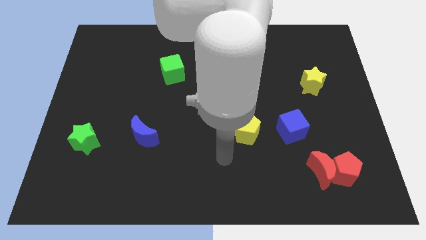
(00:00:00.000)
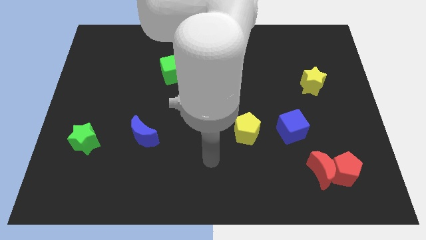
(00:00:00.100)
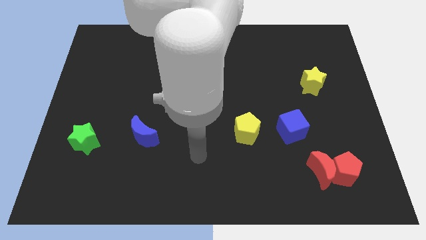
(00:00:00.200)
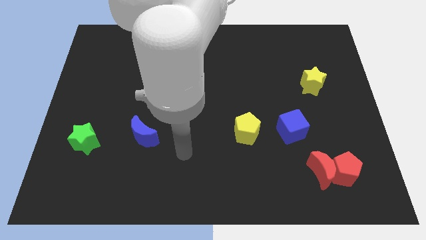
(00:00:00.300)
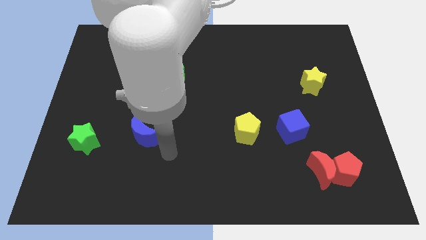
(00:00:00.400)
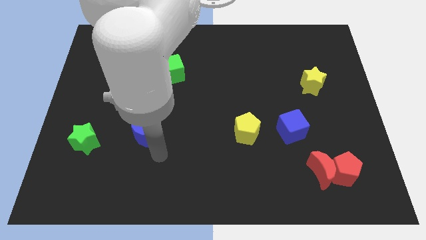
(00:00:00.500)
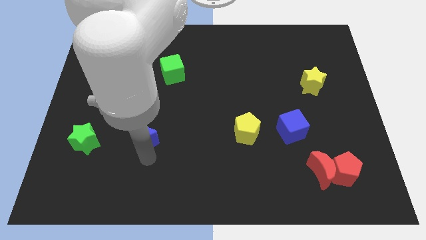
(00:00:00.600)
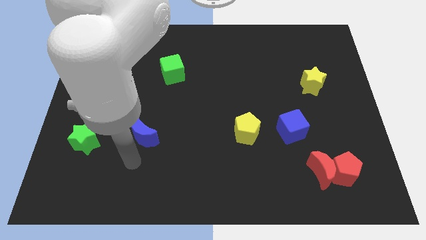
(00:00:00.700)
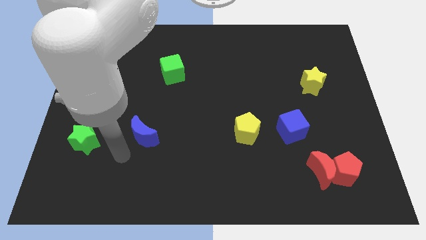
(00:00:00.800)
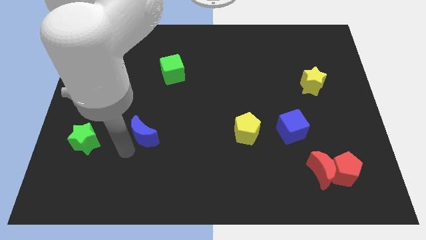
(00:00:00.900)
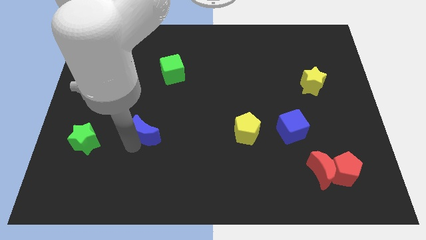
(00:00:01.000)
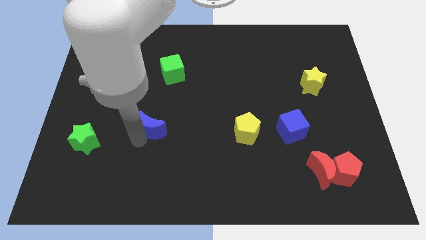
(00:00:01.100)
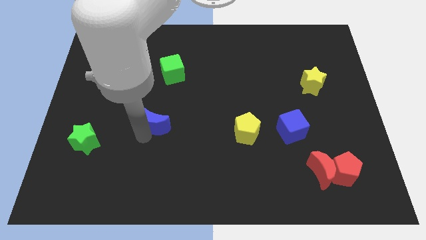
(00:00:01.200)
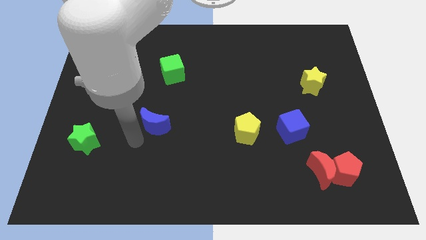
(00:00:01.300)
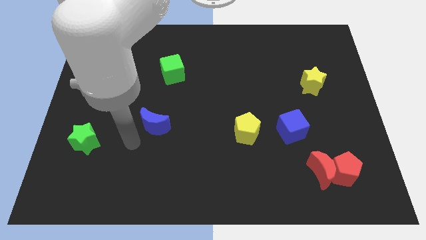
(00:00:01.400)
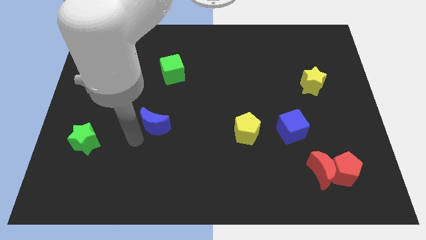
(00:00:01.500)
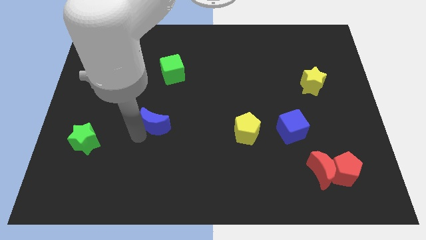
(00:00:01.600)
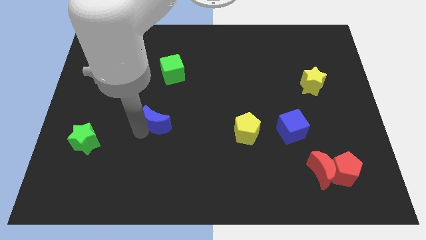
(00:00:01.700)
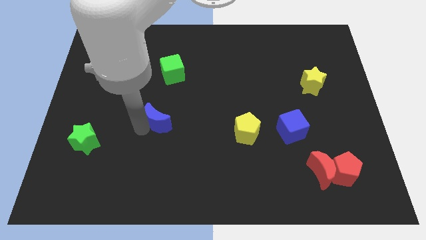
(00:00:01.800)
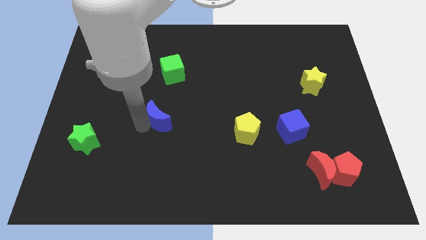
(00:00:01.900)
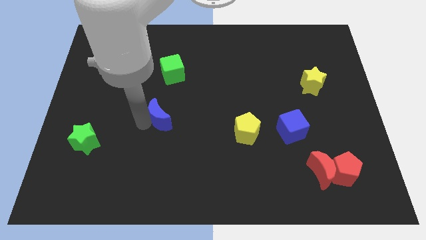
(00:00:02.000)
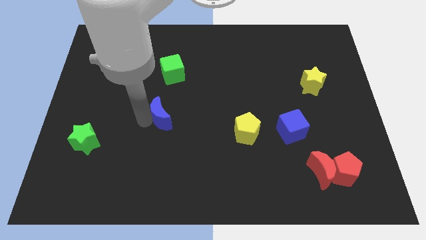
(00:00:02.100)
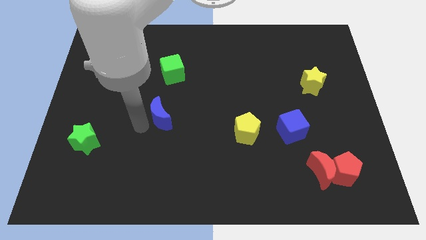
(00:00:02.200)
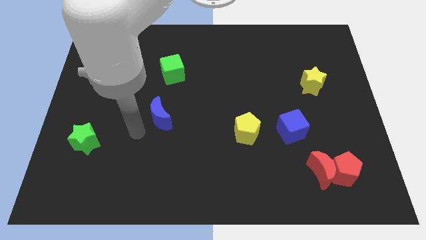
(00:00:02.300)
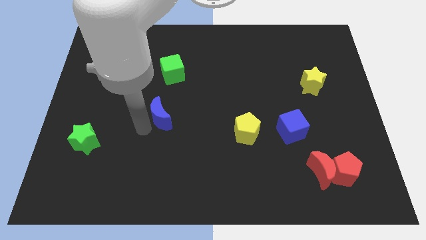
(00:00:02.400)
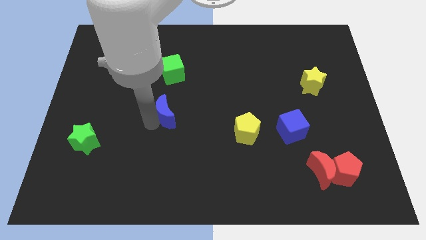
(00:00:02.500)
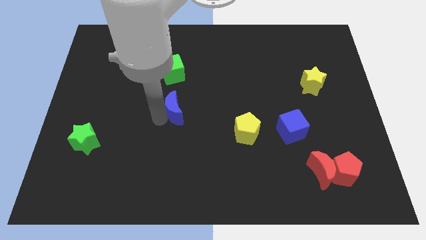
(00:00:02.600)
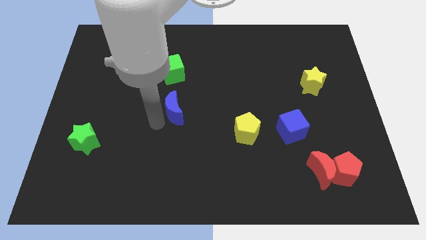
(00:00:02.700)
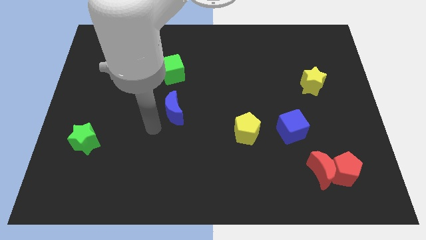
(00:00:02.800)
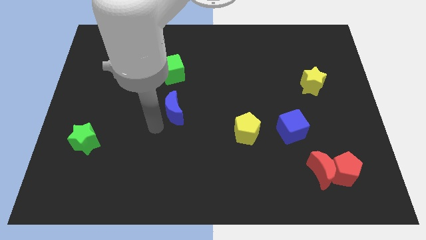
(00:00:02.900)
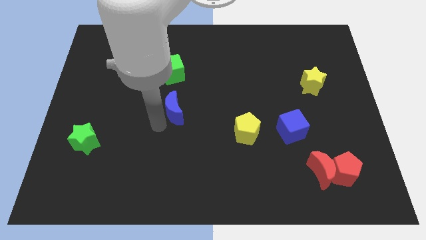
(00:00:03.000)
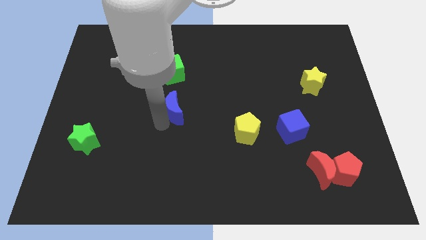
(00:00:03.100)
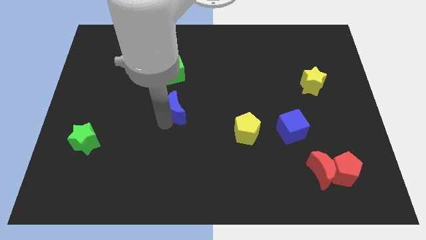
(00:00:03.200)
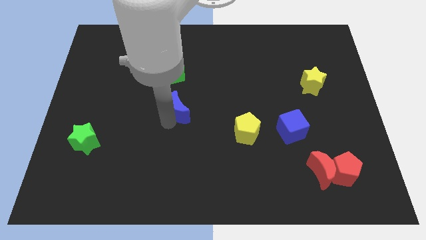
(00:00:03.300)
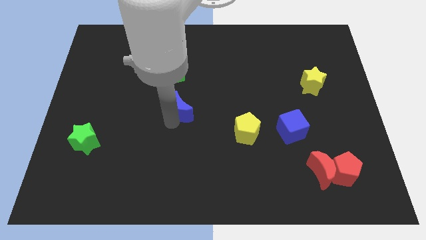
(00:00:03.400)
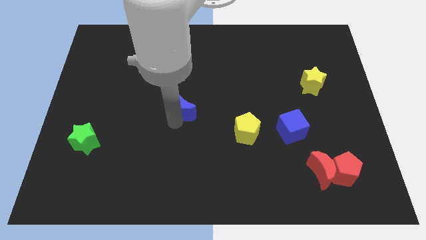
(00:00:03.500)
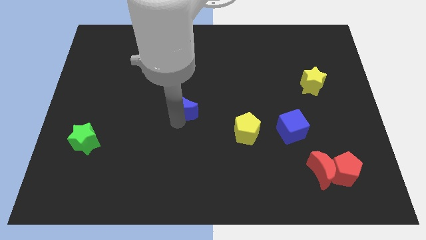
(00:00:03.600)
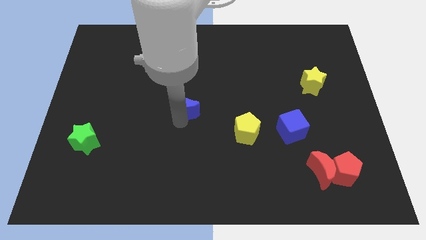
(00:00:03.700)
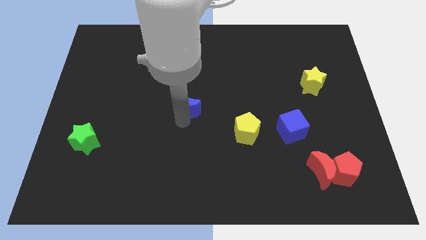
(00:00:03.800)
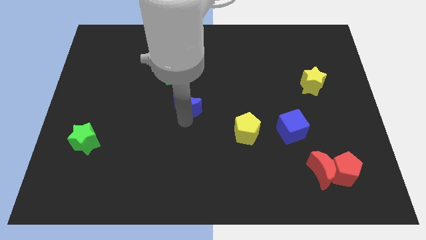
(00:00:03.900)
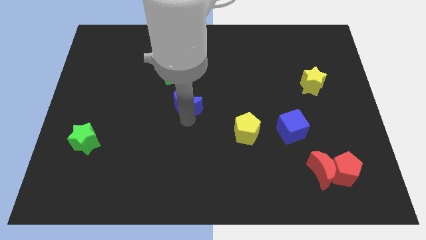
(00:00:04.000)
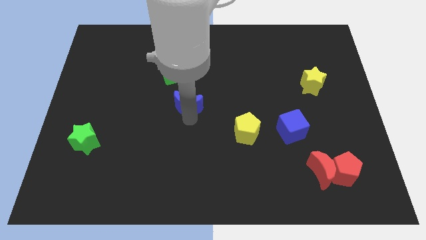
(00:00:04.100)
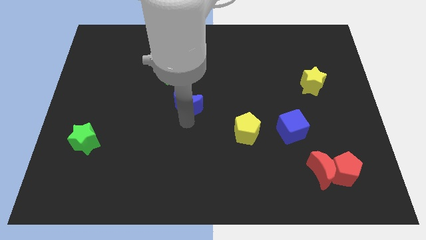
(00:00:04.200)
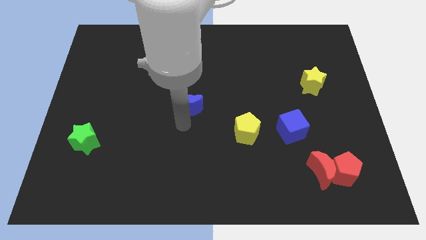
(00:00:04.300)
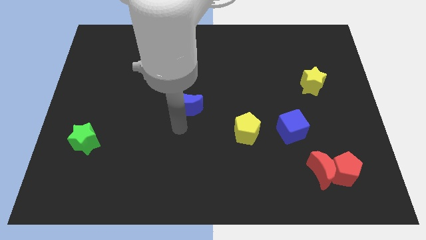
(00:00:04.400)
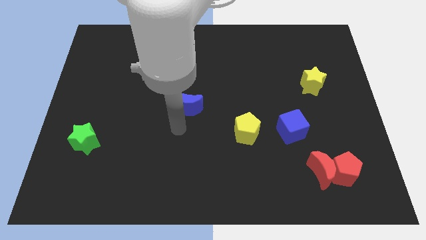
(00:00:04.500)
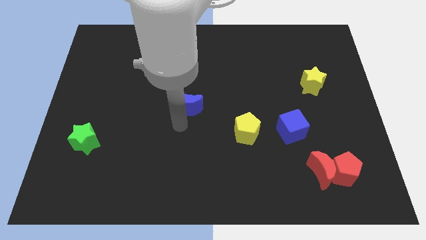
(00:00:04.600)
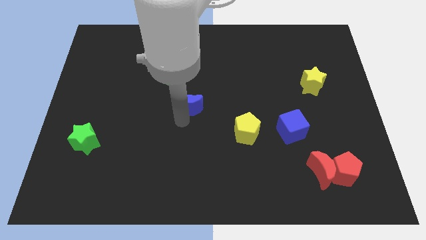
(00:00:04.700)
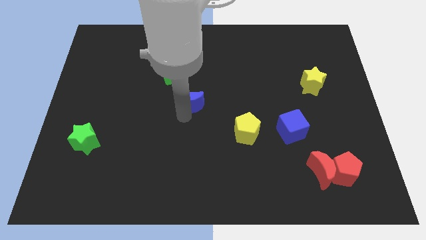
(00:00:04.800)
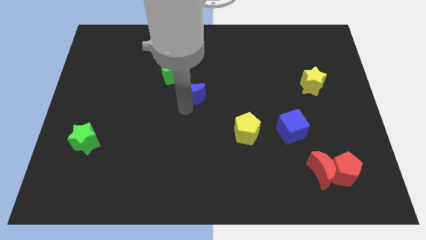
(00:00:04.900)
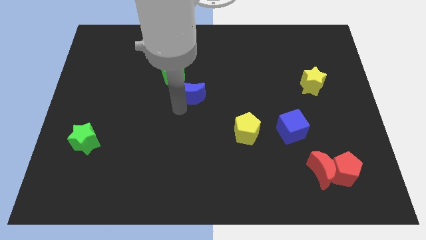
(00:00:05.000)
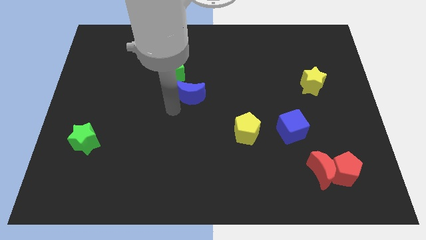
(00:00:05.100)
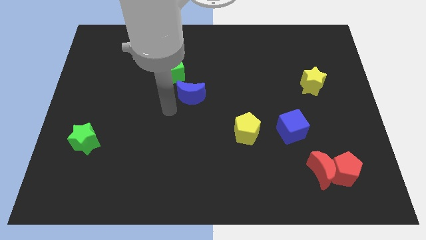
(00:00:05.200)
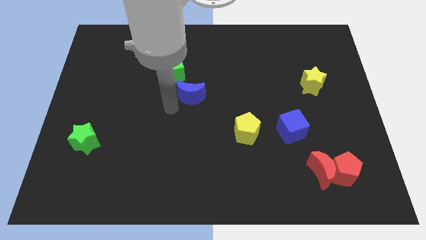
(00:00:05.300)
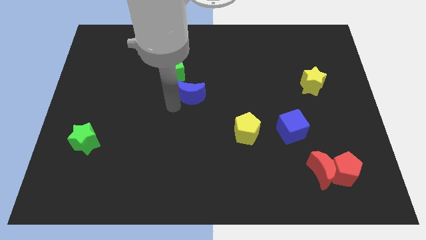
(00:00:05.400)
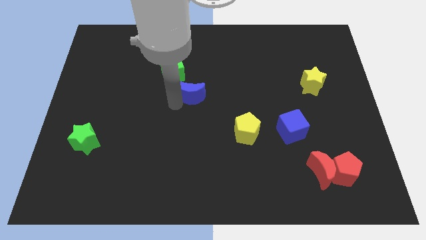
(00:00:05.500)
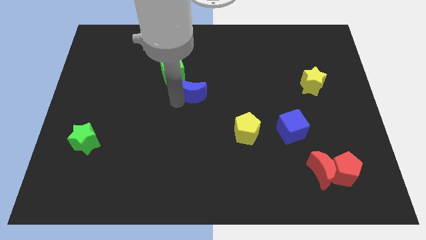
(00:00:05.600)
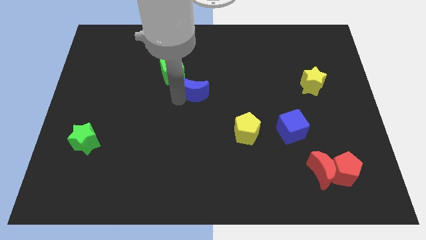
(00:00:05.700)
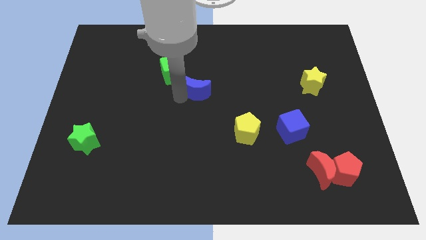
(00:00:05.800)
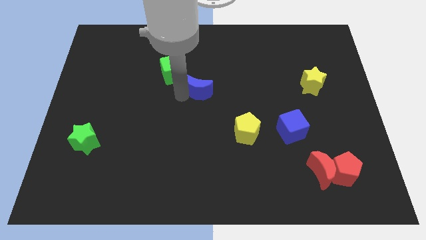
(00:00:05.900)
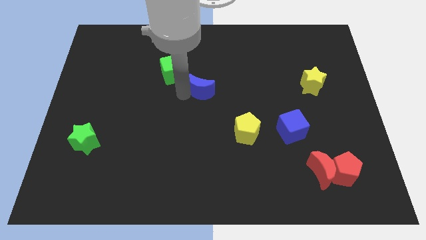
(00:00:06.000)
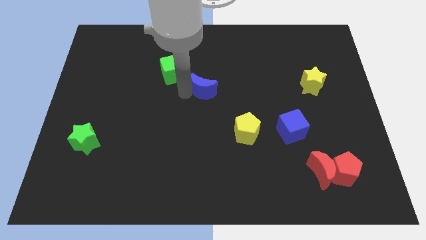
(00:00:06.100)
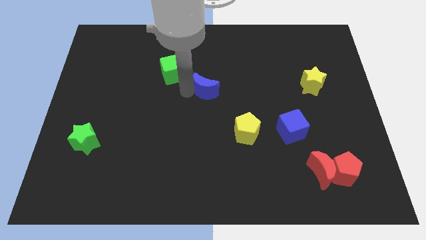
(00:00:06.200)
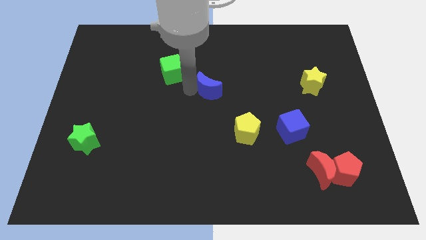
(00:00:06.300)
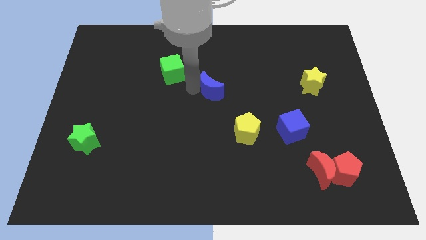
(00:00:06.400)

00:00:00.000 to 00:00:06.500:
push the blue moon up and right diagonally

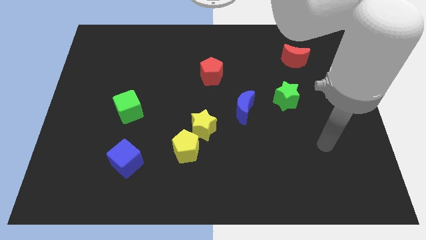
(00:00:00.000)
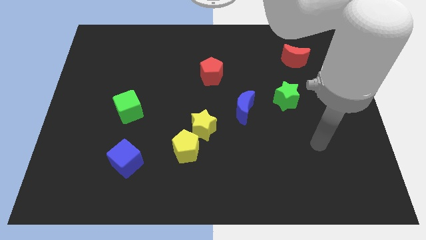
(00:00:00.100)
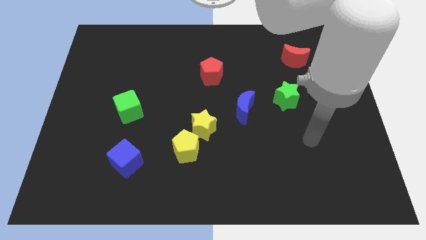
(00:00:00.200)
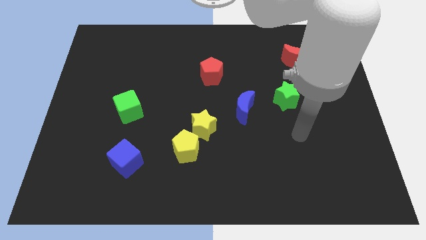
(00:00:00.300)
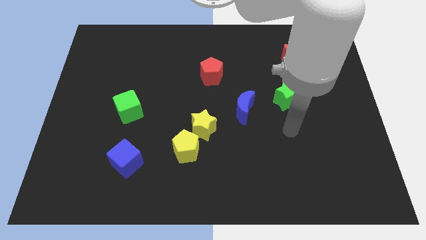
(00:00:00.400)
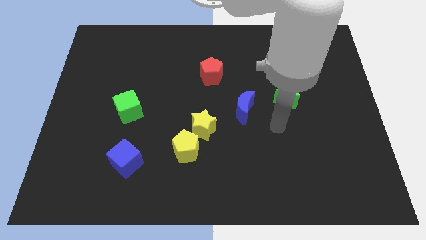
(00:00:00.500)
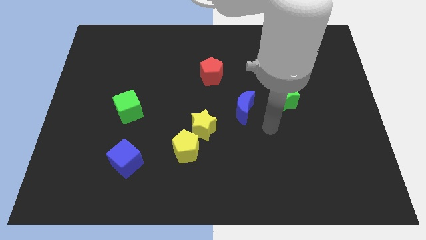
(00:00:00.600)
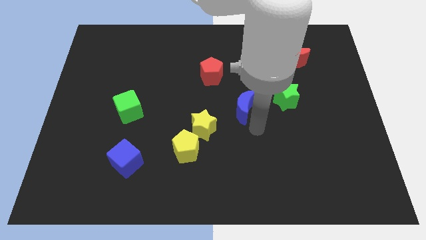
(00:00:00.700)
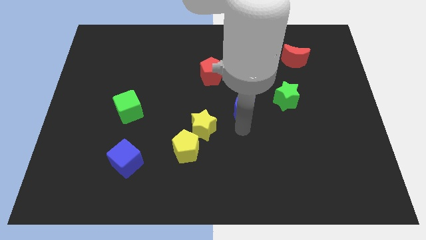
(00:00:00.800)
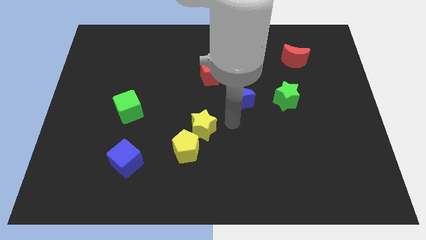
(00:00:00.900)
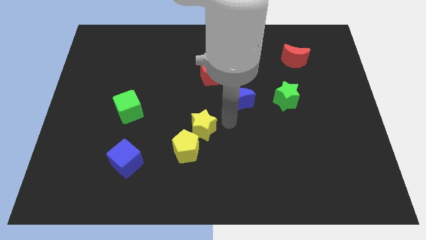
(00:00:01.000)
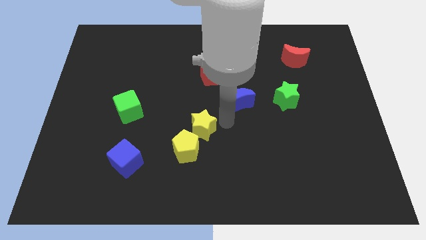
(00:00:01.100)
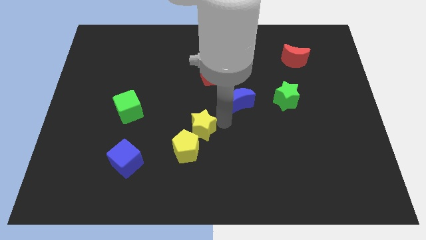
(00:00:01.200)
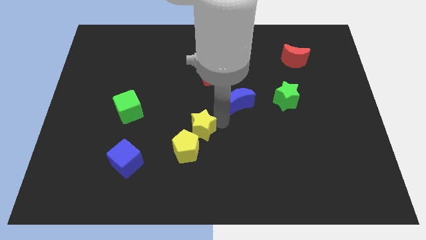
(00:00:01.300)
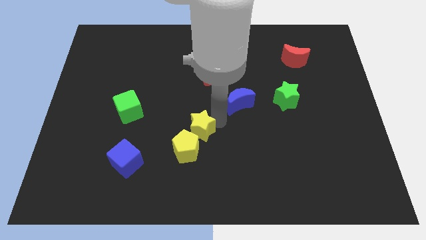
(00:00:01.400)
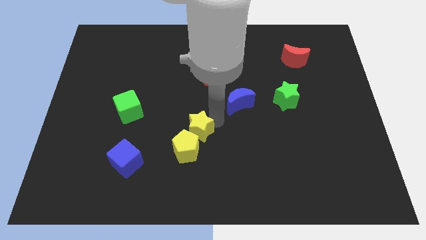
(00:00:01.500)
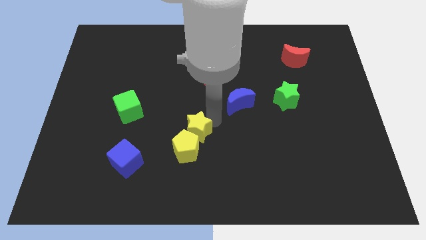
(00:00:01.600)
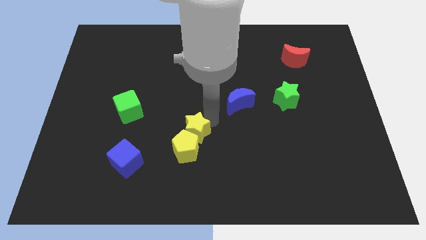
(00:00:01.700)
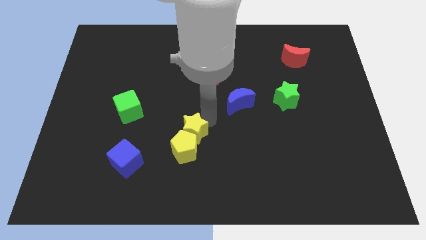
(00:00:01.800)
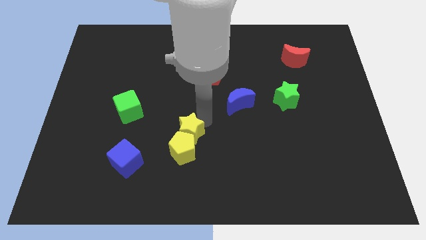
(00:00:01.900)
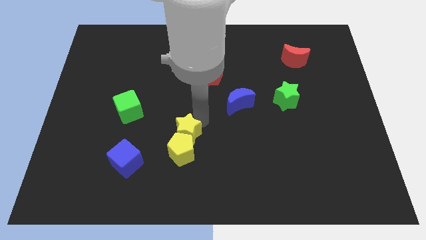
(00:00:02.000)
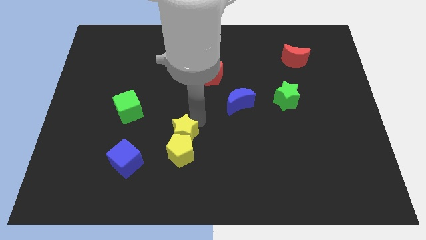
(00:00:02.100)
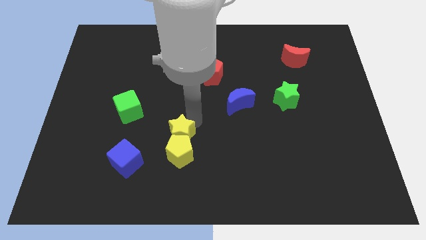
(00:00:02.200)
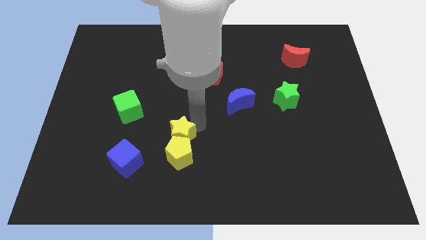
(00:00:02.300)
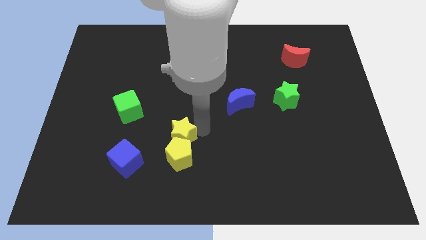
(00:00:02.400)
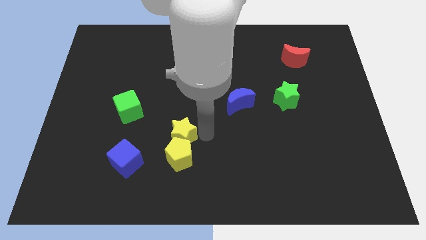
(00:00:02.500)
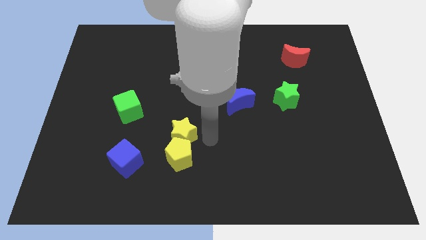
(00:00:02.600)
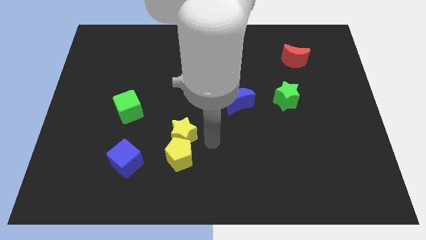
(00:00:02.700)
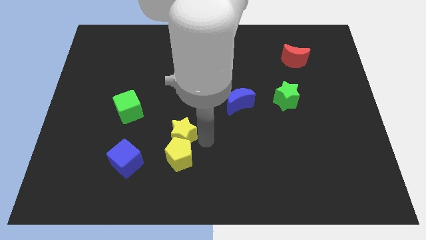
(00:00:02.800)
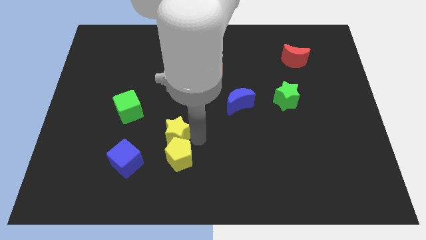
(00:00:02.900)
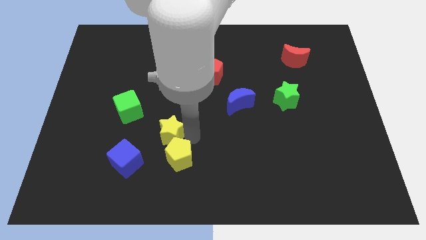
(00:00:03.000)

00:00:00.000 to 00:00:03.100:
slightly slide the yellow star left
